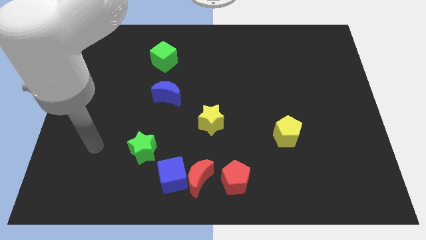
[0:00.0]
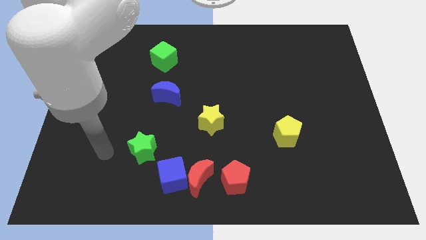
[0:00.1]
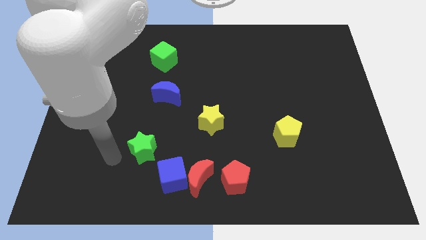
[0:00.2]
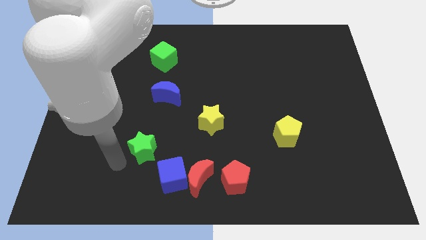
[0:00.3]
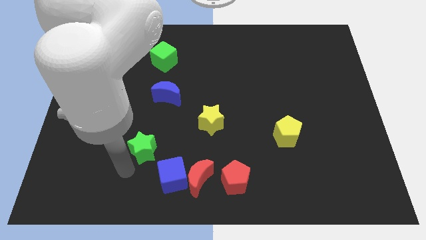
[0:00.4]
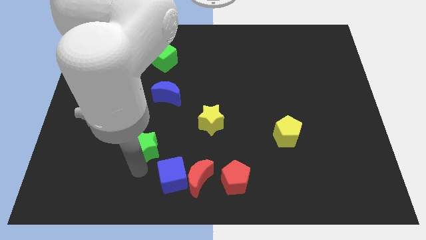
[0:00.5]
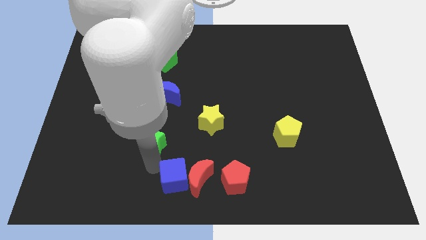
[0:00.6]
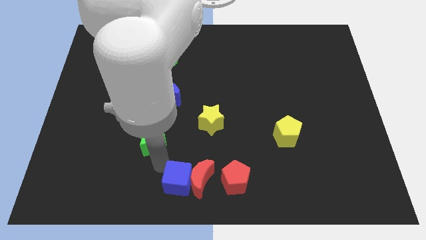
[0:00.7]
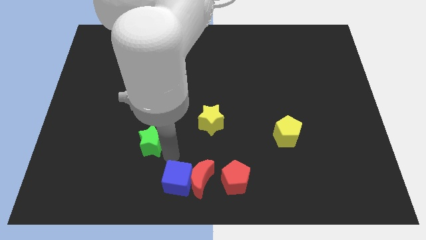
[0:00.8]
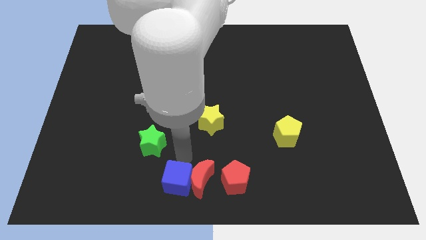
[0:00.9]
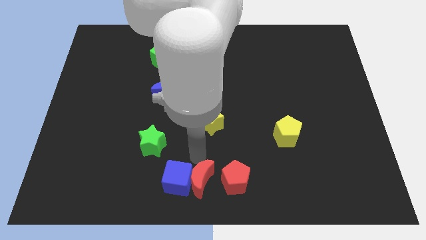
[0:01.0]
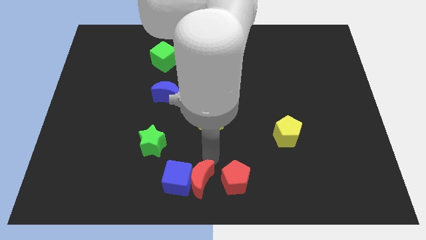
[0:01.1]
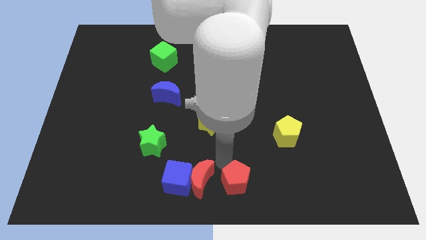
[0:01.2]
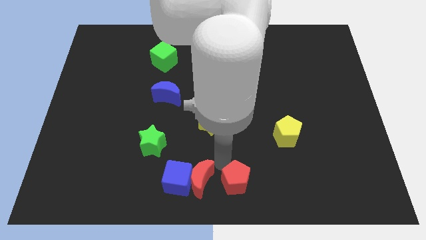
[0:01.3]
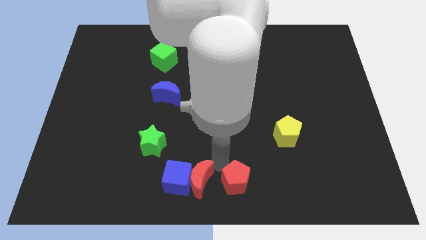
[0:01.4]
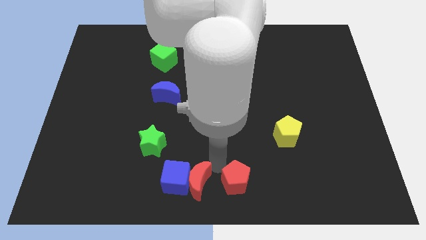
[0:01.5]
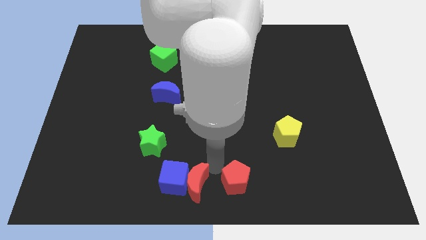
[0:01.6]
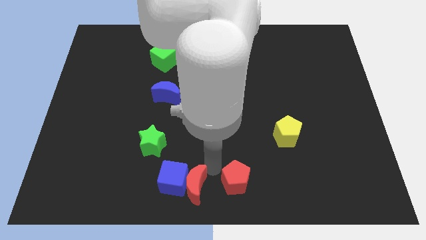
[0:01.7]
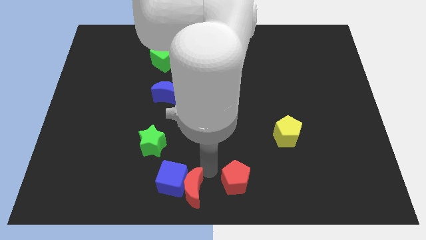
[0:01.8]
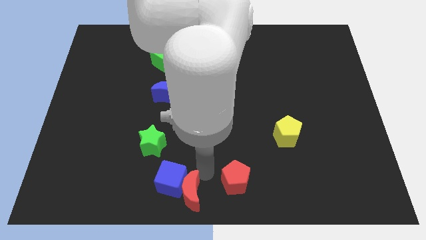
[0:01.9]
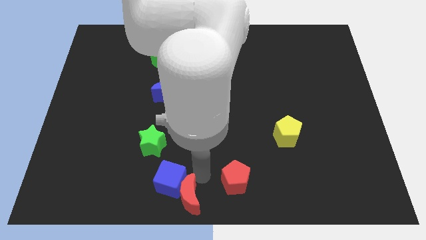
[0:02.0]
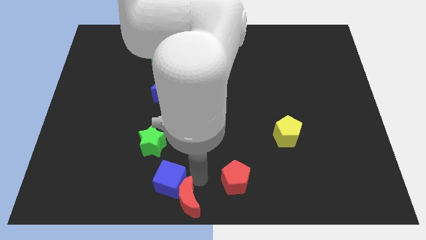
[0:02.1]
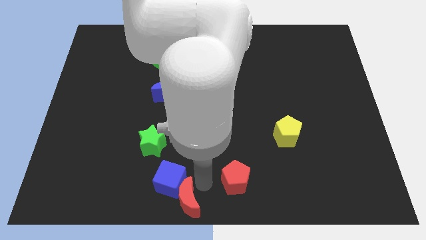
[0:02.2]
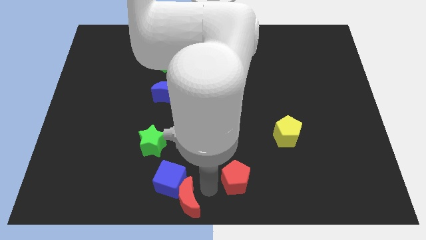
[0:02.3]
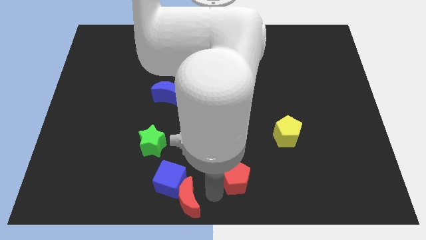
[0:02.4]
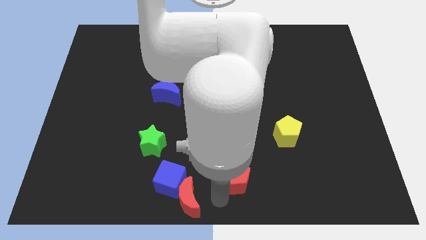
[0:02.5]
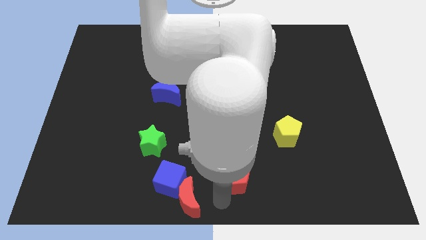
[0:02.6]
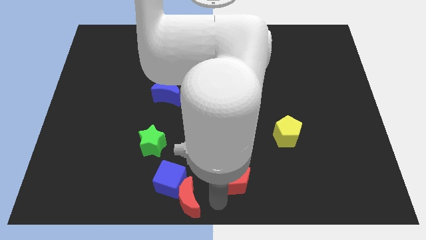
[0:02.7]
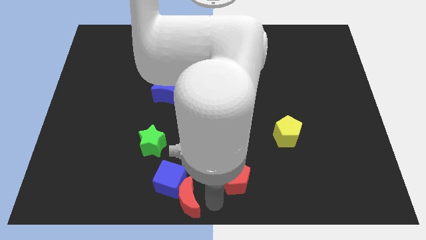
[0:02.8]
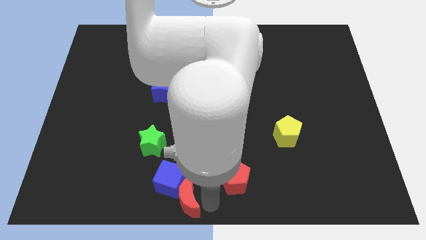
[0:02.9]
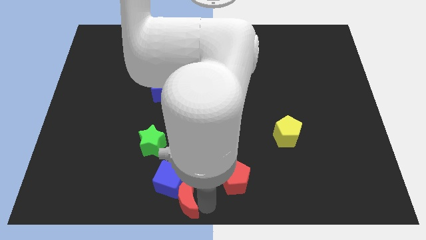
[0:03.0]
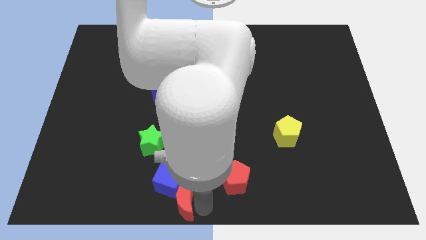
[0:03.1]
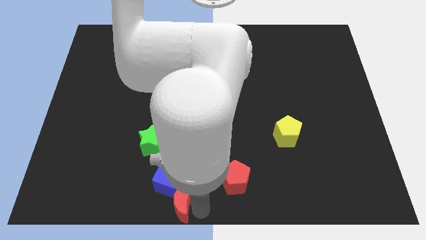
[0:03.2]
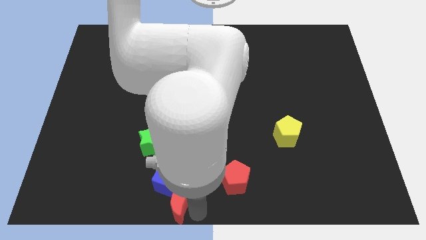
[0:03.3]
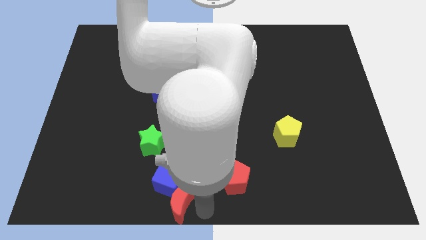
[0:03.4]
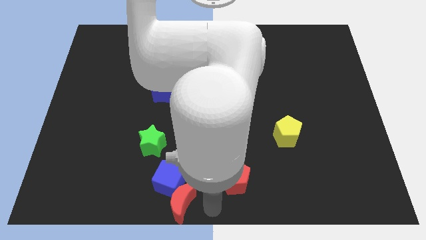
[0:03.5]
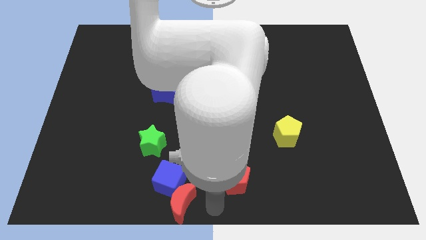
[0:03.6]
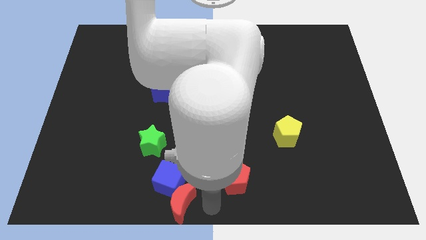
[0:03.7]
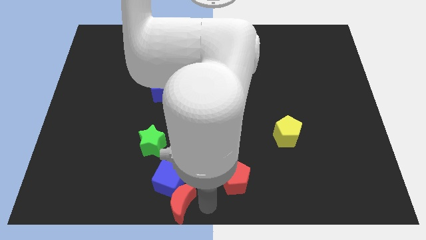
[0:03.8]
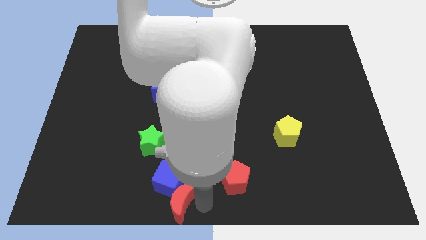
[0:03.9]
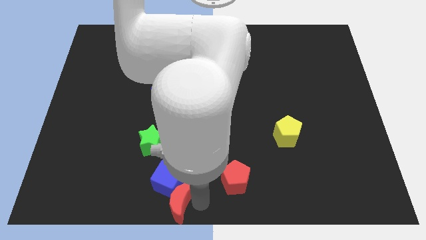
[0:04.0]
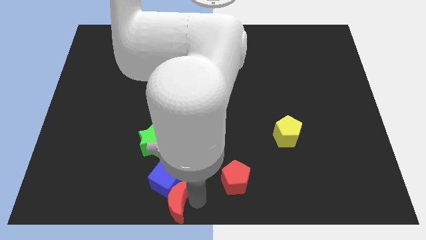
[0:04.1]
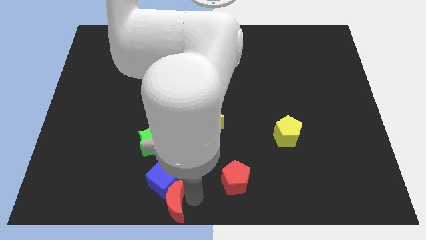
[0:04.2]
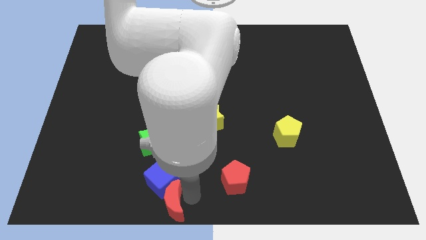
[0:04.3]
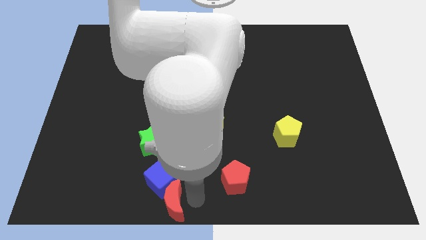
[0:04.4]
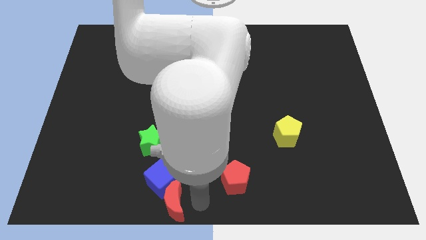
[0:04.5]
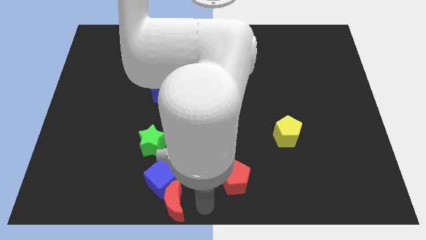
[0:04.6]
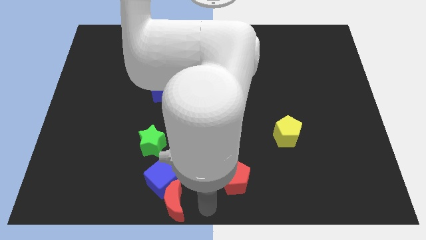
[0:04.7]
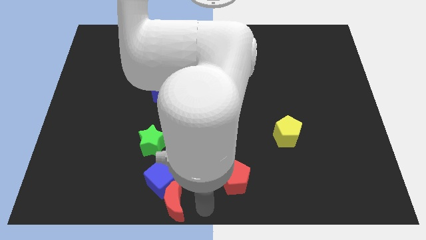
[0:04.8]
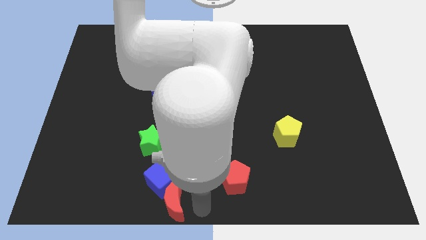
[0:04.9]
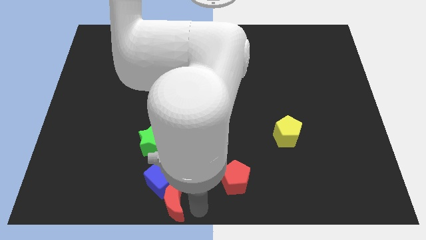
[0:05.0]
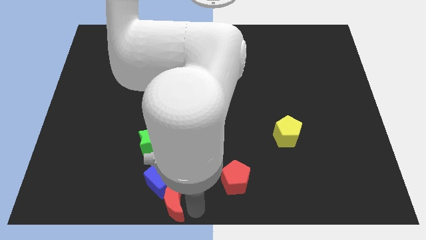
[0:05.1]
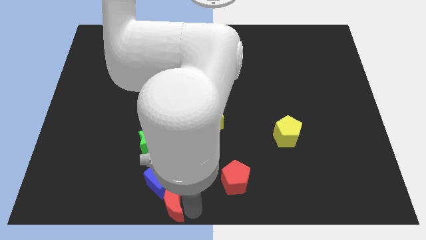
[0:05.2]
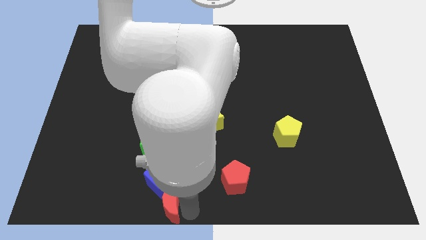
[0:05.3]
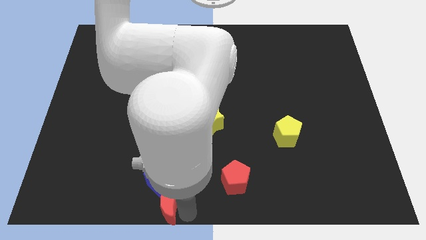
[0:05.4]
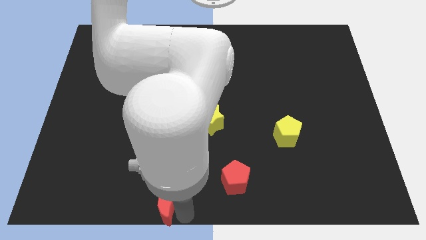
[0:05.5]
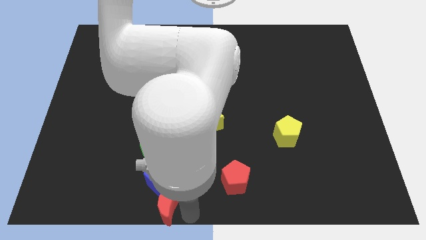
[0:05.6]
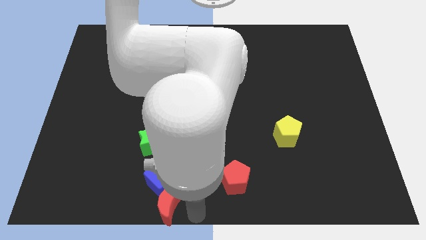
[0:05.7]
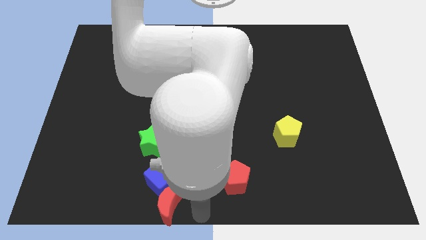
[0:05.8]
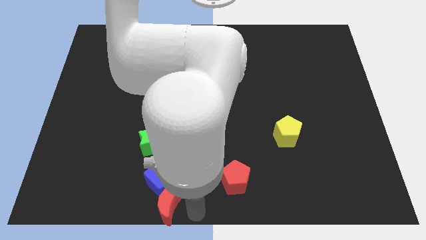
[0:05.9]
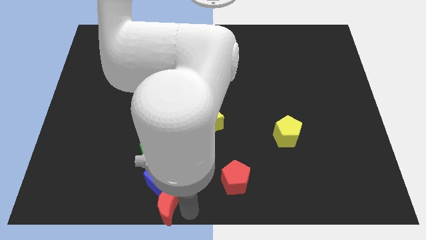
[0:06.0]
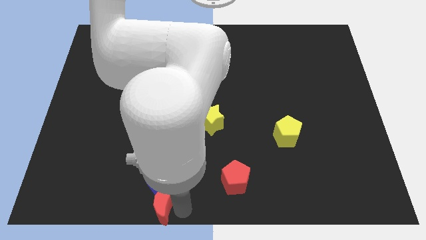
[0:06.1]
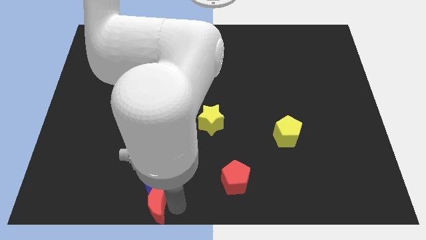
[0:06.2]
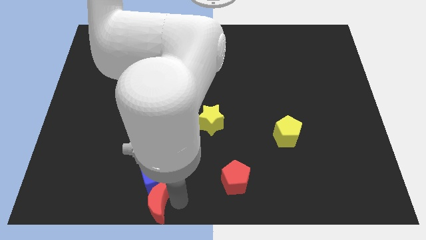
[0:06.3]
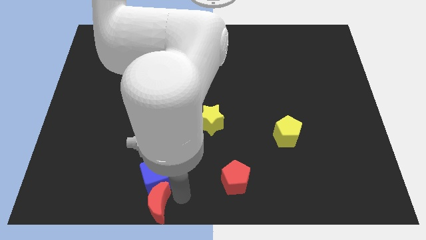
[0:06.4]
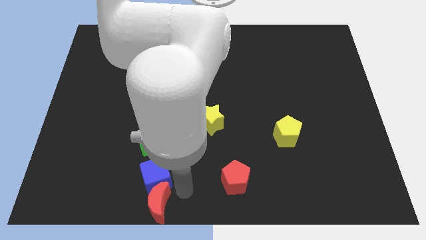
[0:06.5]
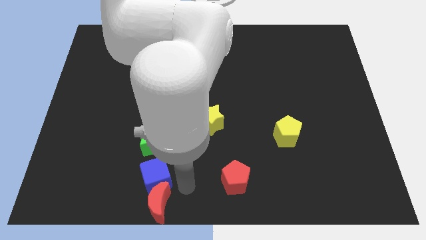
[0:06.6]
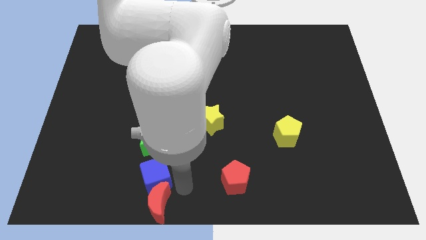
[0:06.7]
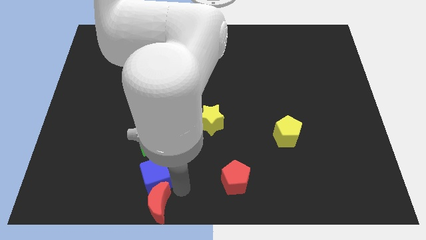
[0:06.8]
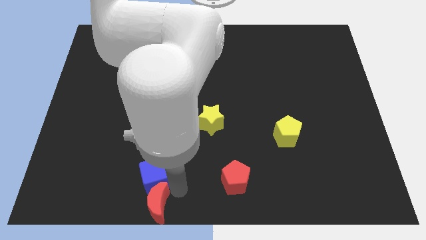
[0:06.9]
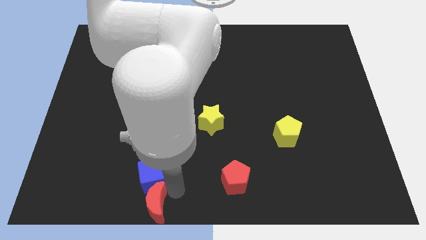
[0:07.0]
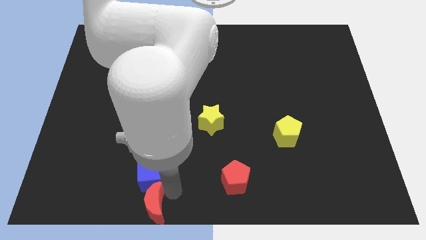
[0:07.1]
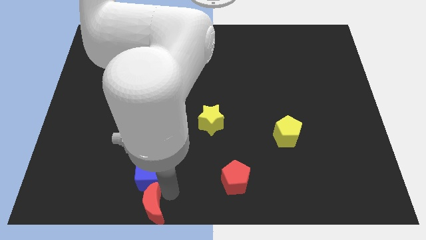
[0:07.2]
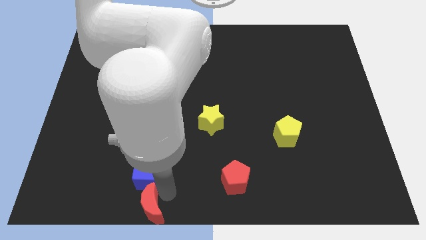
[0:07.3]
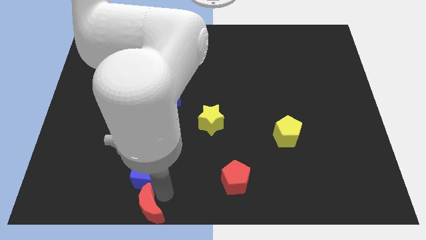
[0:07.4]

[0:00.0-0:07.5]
separate the red moon from the blue cube and red pentagon

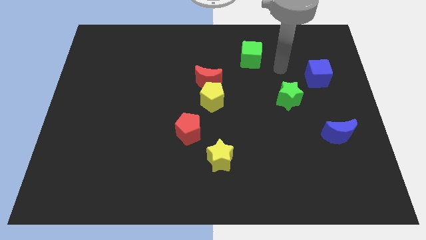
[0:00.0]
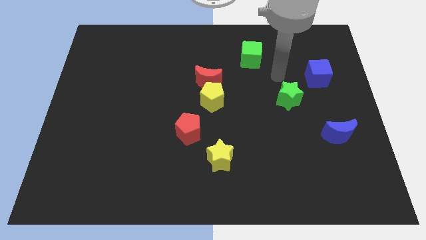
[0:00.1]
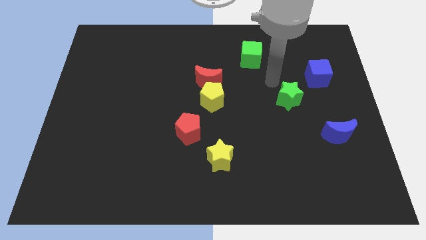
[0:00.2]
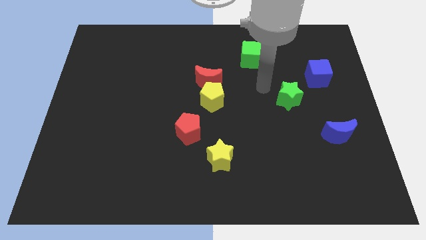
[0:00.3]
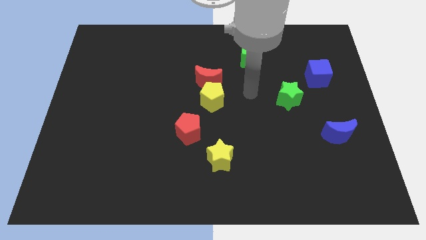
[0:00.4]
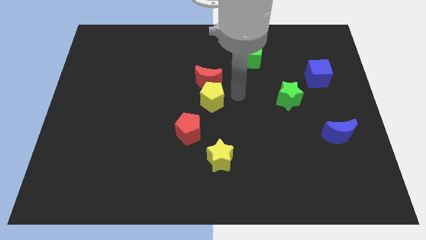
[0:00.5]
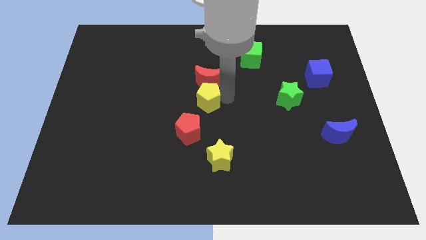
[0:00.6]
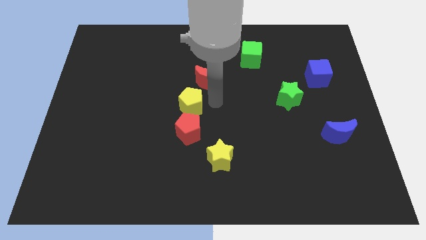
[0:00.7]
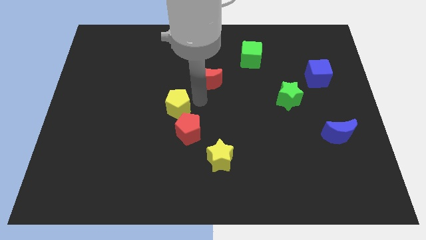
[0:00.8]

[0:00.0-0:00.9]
move the red moon away from the yellow pentagon

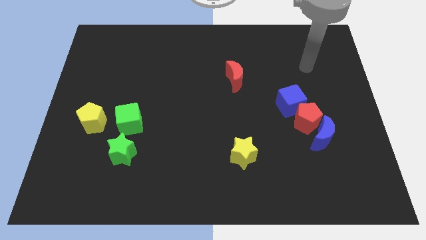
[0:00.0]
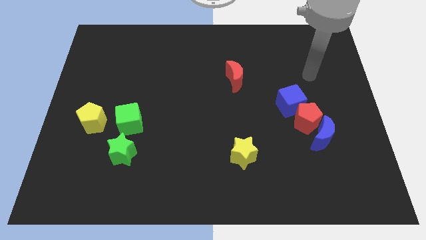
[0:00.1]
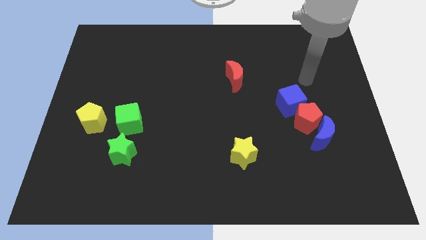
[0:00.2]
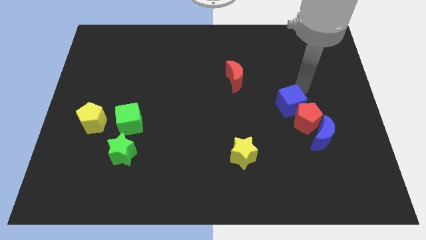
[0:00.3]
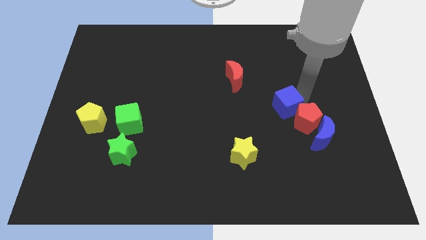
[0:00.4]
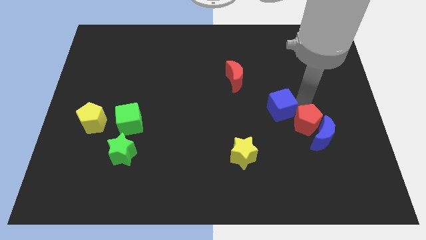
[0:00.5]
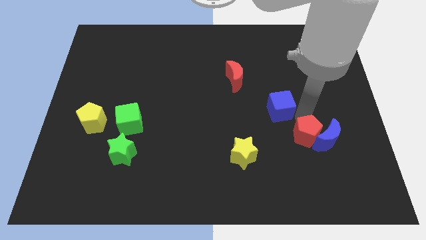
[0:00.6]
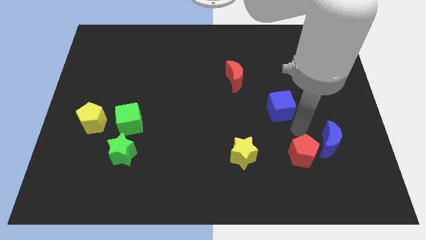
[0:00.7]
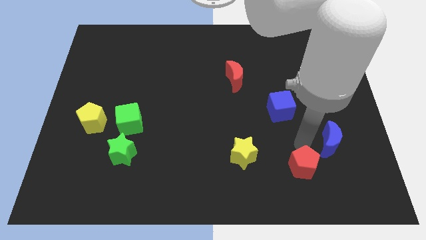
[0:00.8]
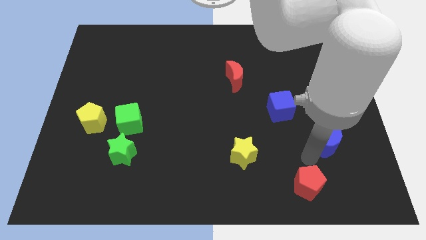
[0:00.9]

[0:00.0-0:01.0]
pull the blue moon apart from the red pentagon
